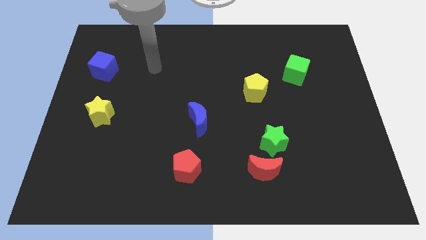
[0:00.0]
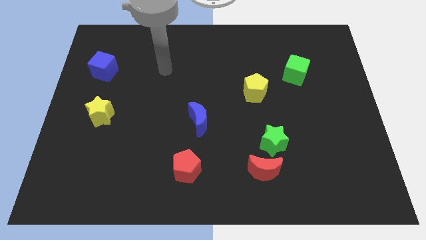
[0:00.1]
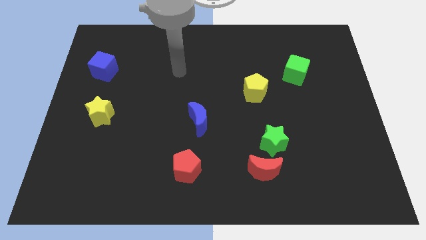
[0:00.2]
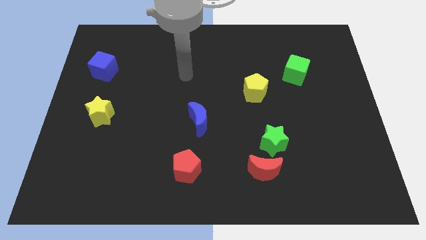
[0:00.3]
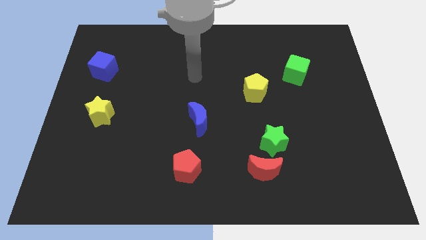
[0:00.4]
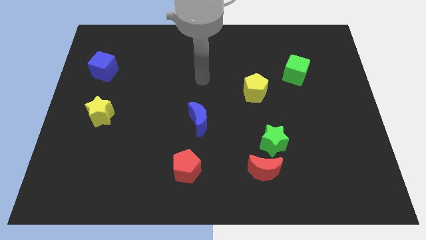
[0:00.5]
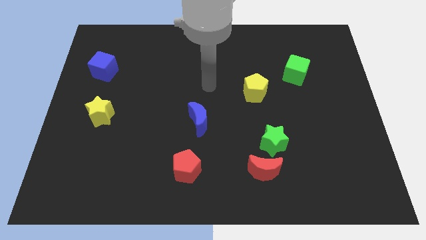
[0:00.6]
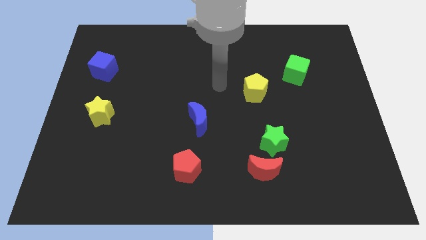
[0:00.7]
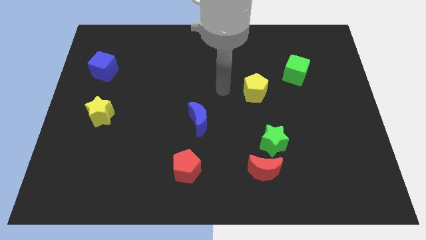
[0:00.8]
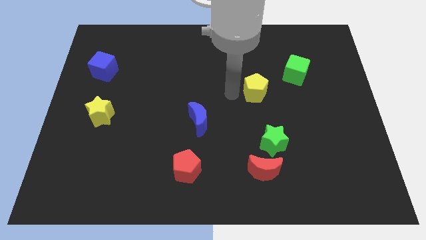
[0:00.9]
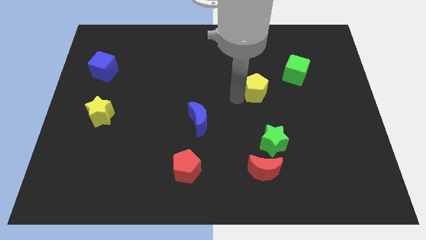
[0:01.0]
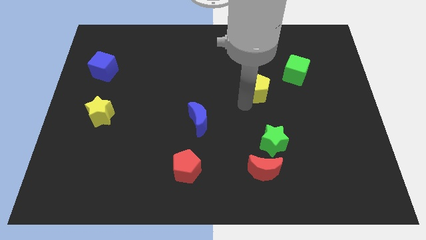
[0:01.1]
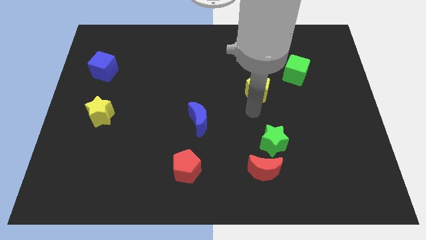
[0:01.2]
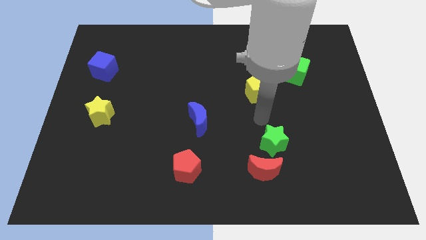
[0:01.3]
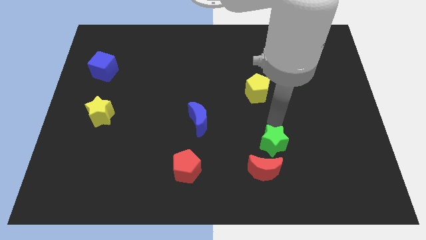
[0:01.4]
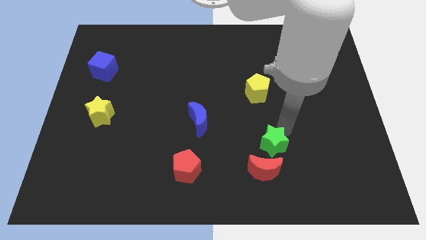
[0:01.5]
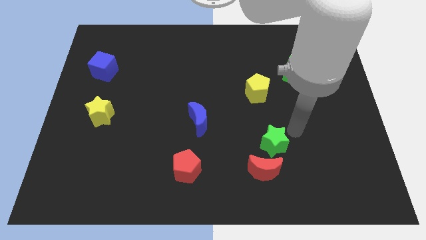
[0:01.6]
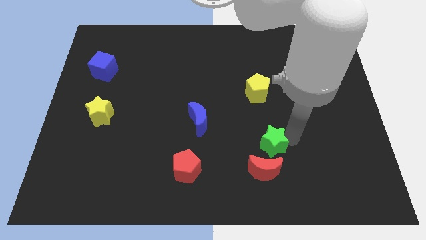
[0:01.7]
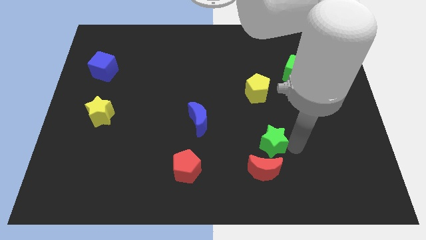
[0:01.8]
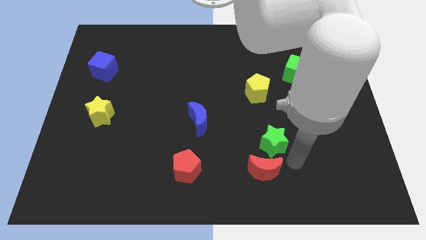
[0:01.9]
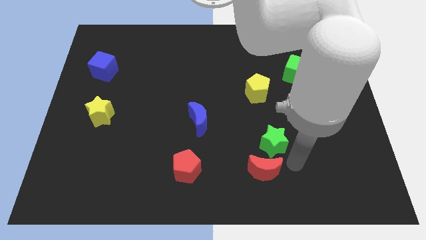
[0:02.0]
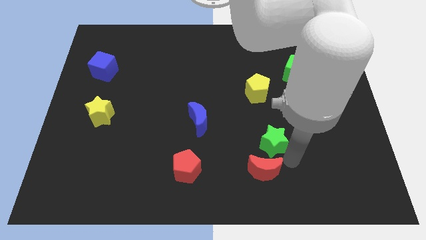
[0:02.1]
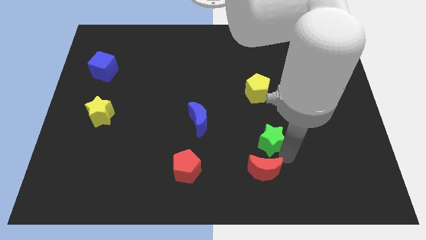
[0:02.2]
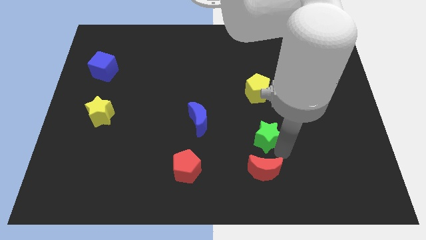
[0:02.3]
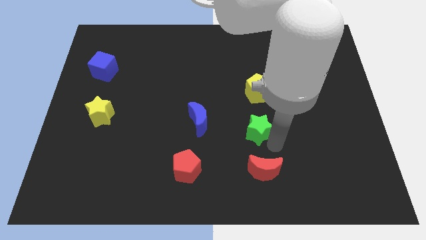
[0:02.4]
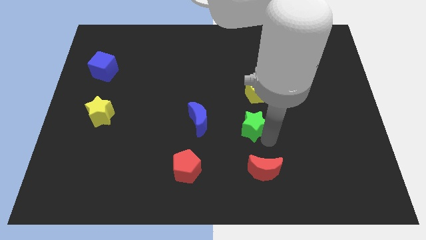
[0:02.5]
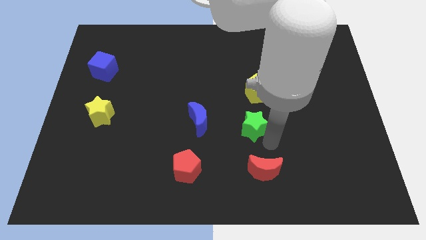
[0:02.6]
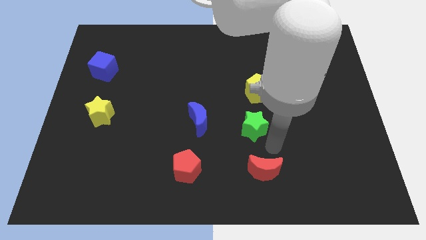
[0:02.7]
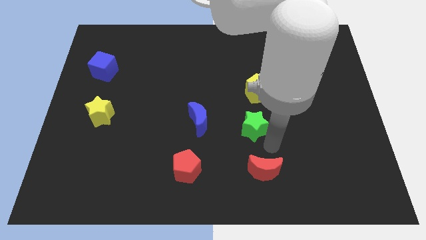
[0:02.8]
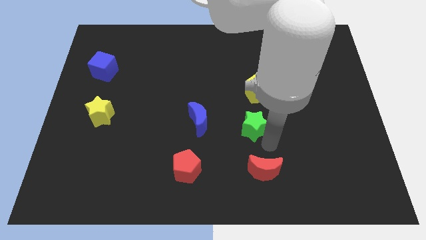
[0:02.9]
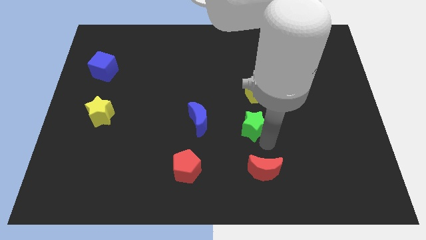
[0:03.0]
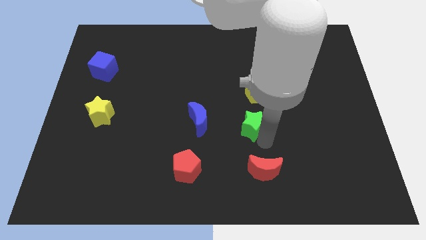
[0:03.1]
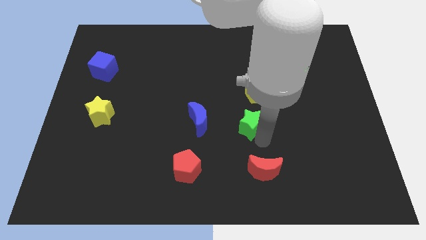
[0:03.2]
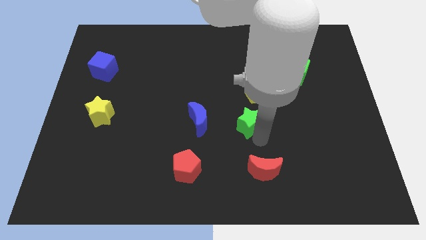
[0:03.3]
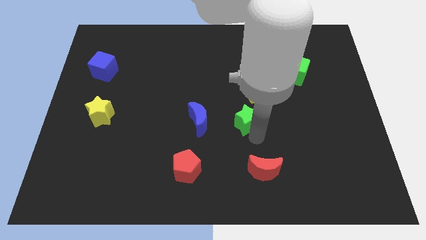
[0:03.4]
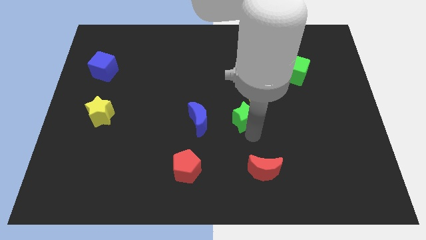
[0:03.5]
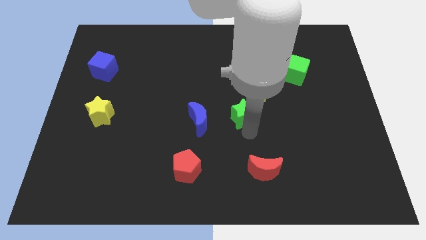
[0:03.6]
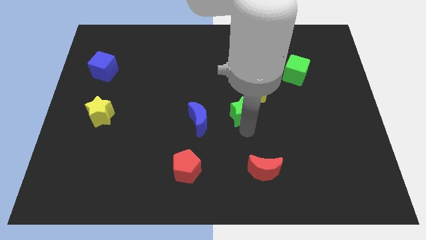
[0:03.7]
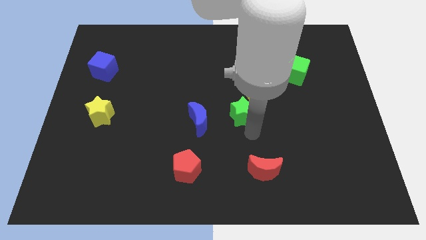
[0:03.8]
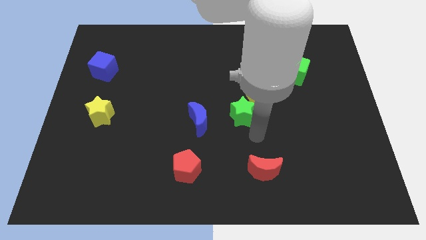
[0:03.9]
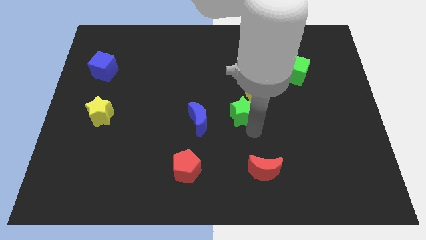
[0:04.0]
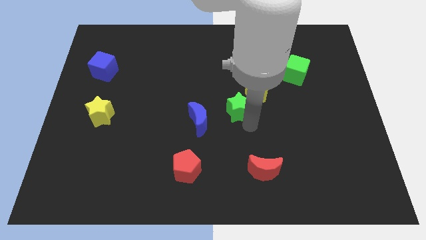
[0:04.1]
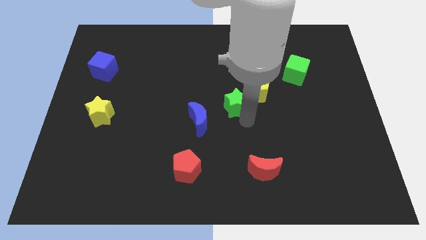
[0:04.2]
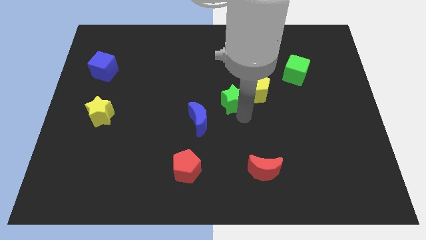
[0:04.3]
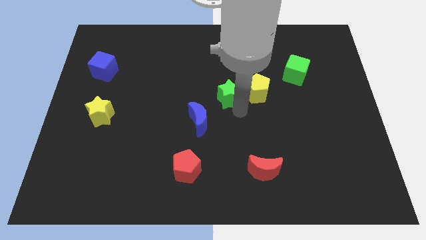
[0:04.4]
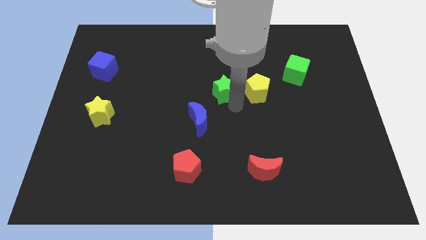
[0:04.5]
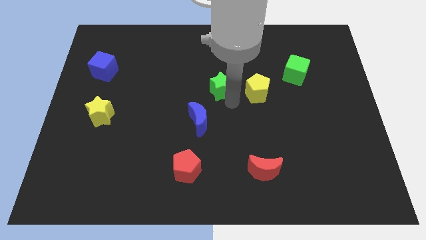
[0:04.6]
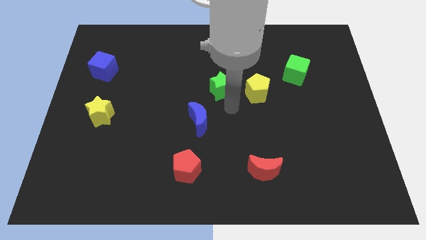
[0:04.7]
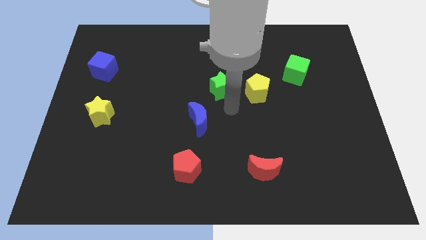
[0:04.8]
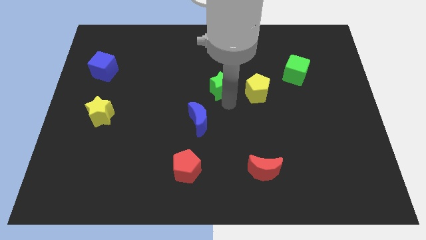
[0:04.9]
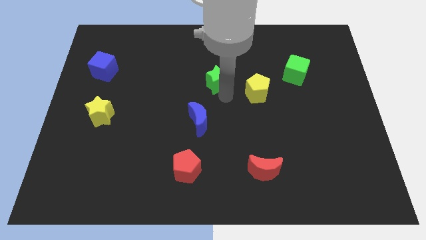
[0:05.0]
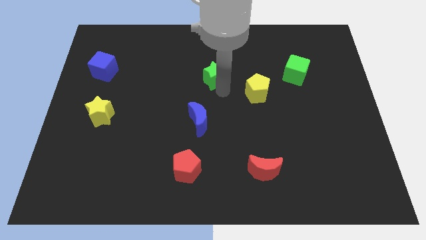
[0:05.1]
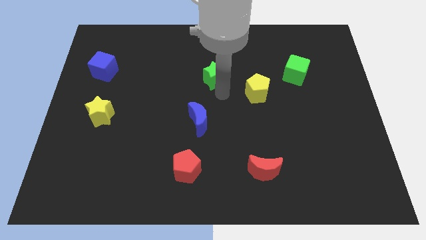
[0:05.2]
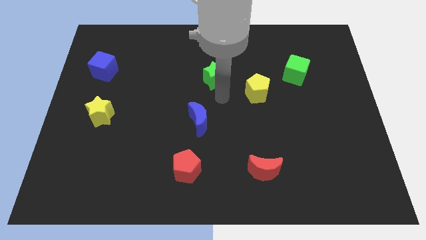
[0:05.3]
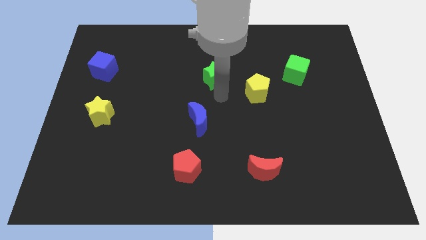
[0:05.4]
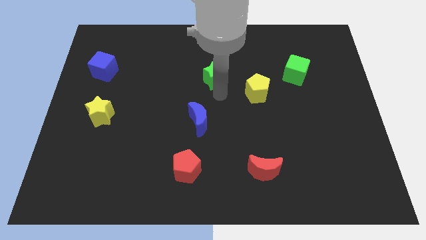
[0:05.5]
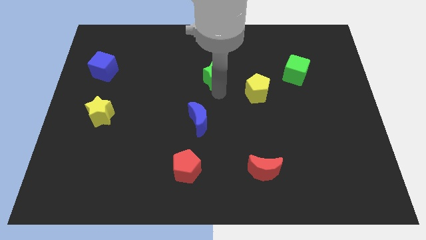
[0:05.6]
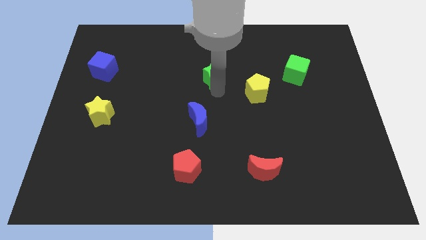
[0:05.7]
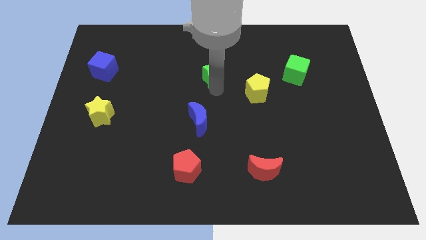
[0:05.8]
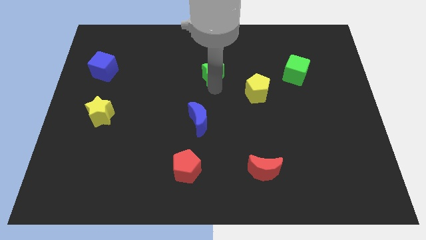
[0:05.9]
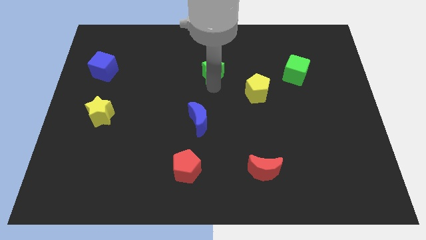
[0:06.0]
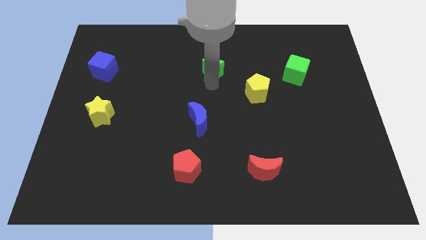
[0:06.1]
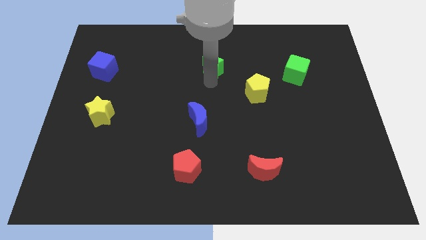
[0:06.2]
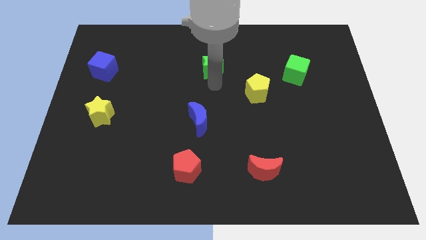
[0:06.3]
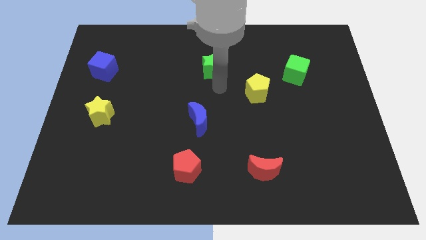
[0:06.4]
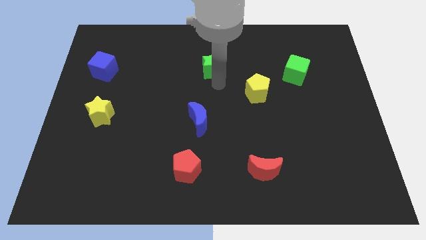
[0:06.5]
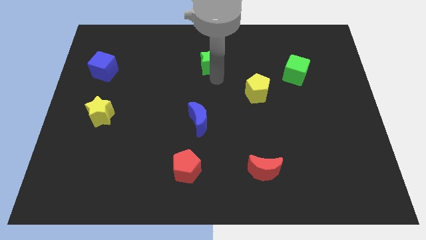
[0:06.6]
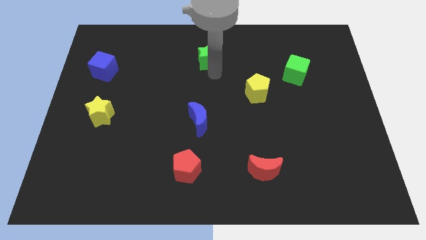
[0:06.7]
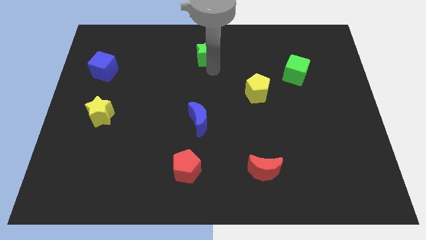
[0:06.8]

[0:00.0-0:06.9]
put the green star to the towards your base
